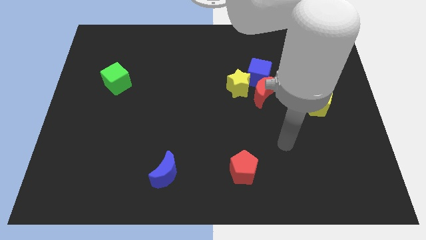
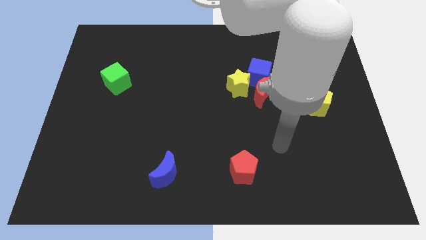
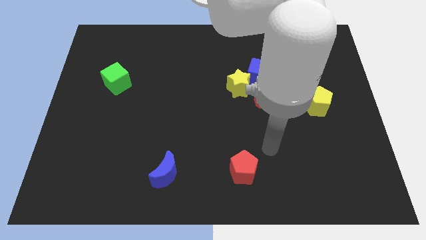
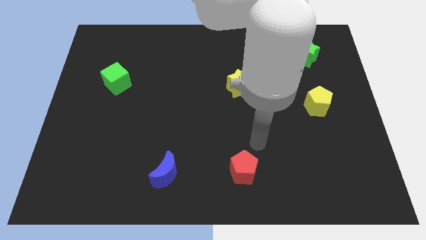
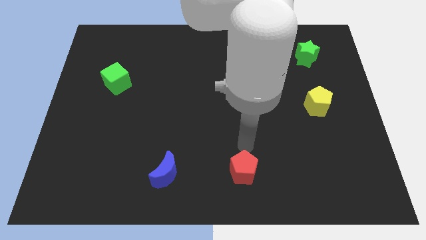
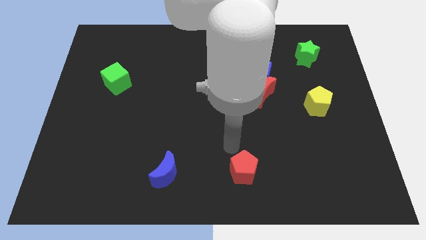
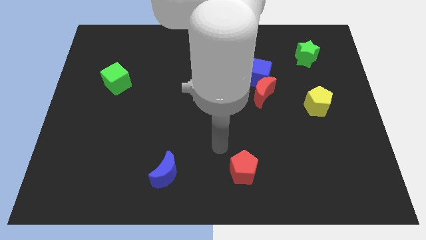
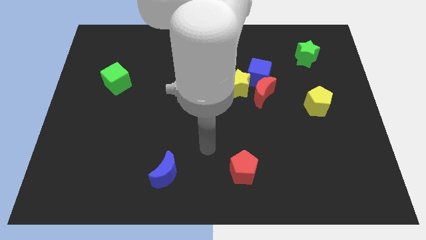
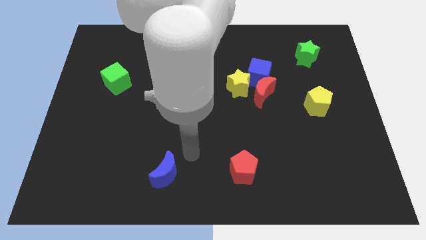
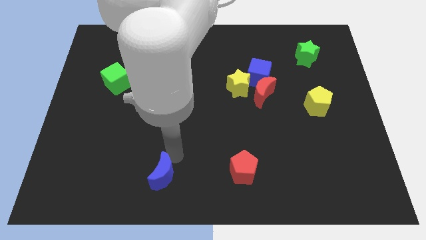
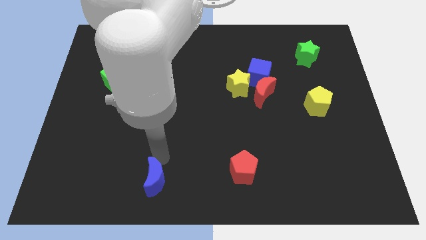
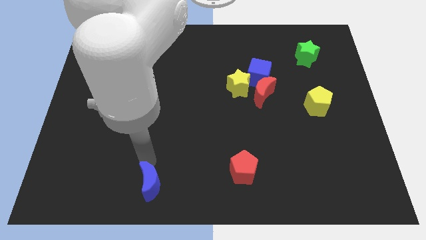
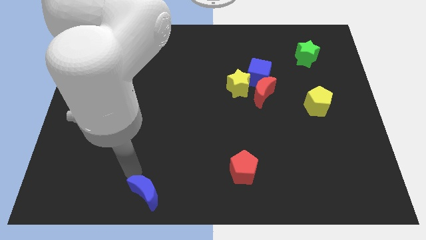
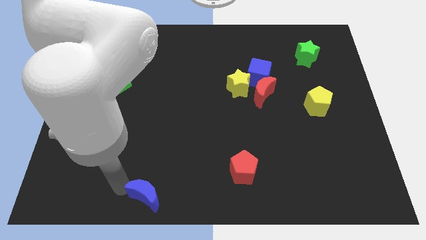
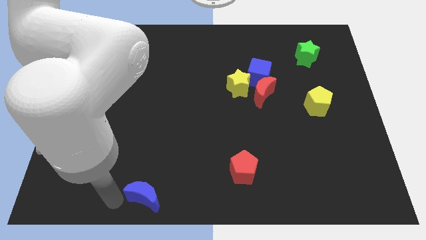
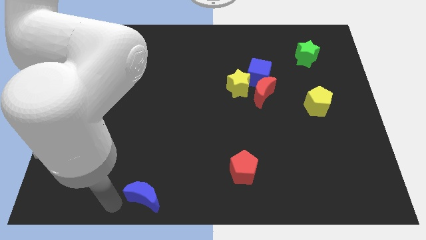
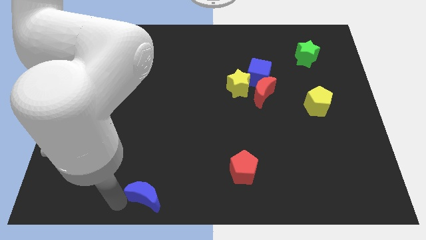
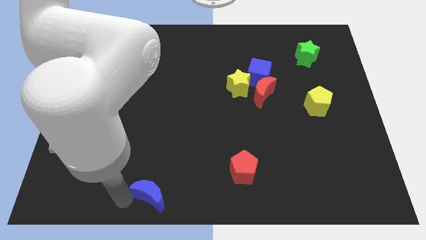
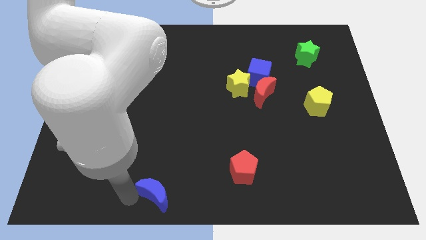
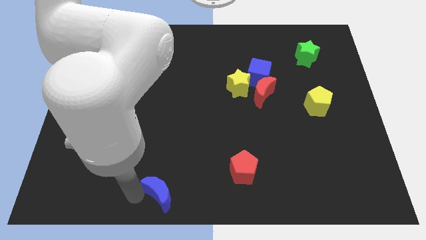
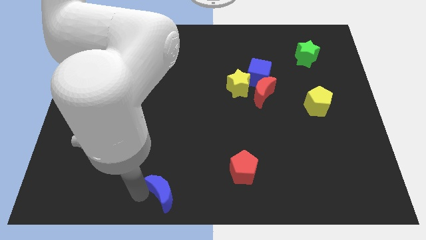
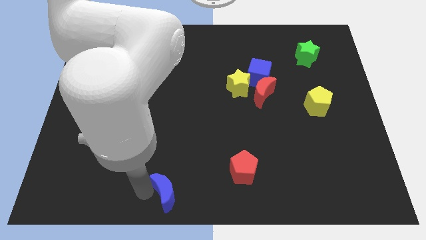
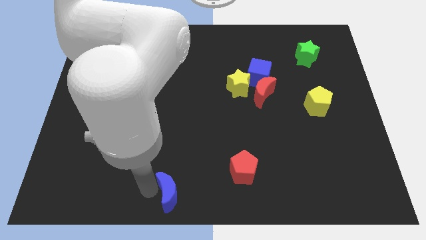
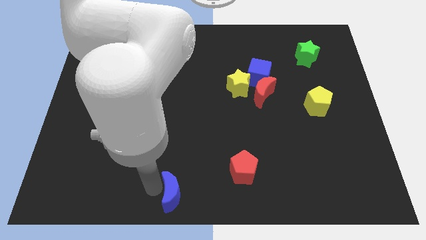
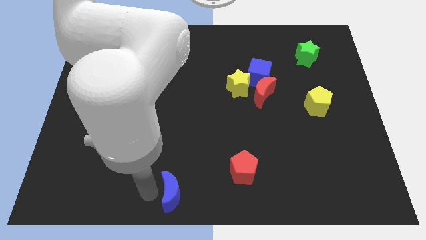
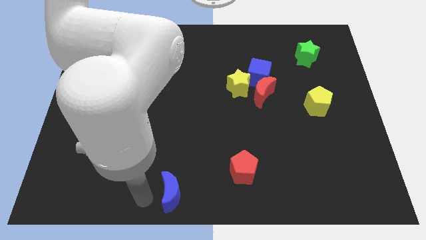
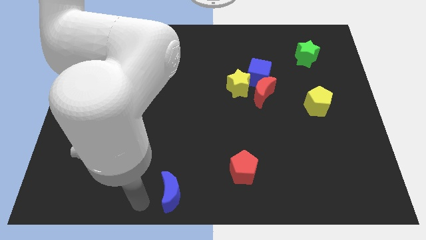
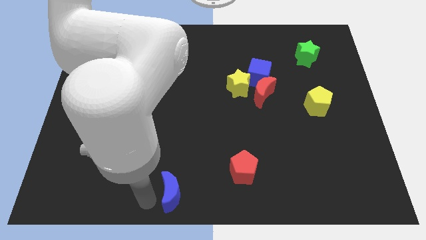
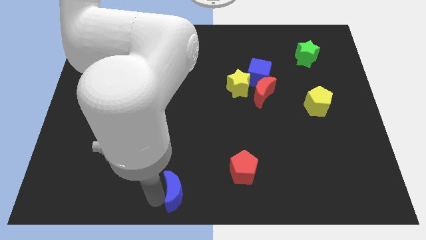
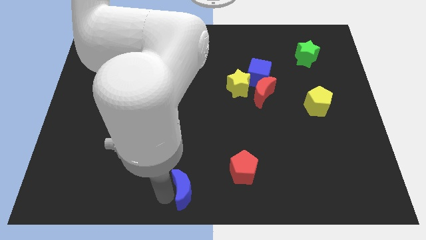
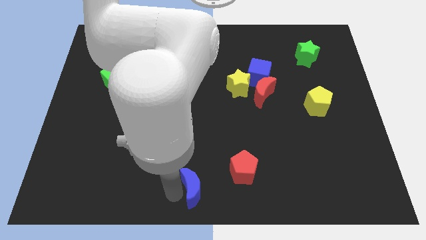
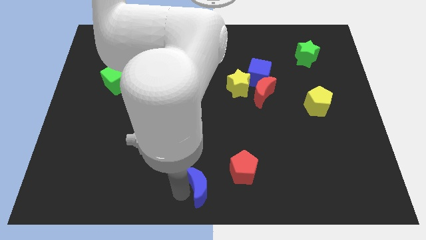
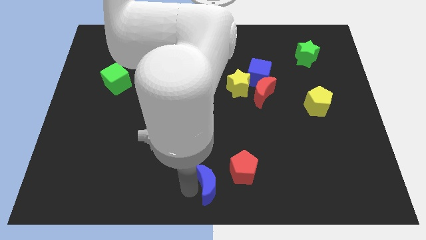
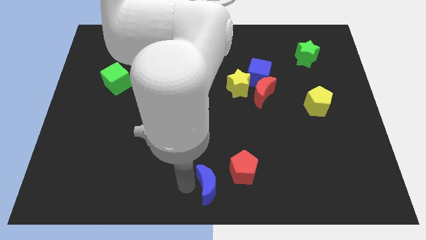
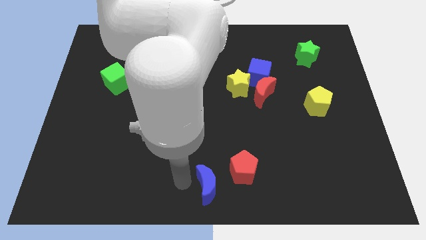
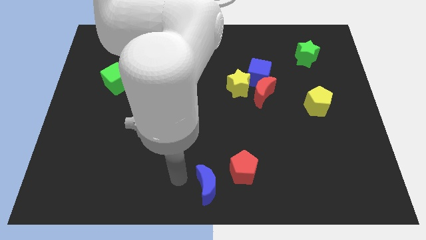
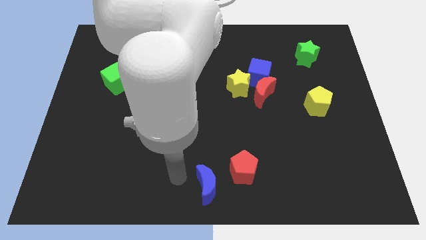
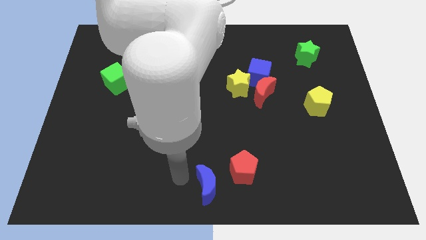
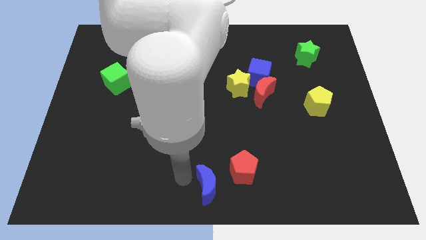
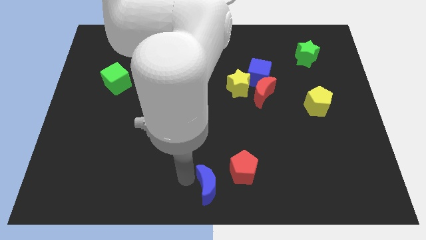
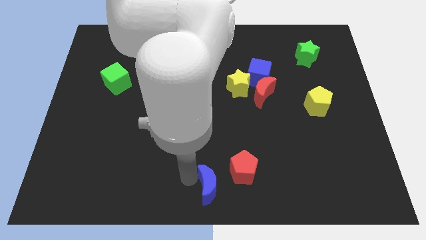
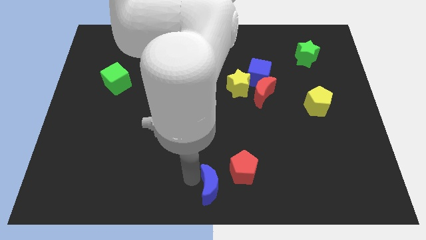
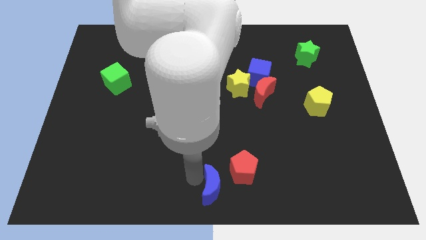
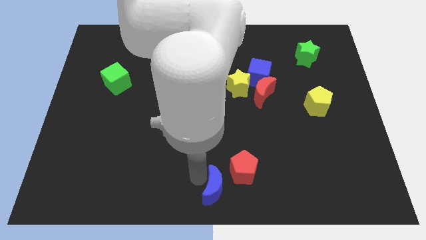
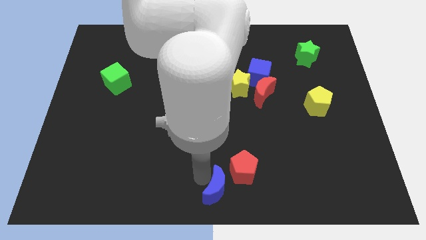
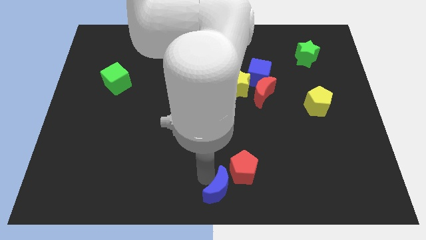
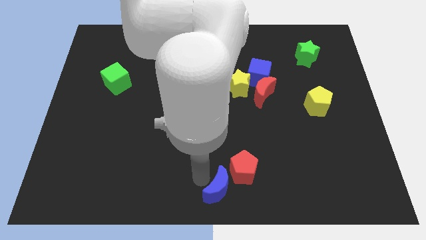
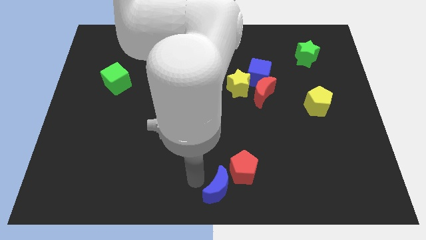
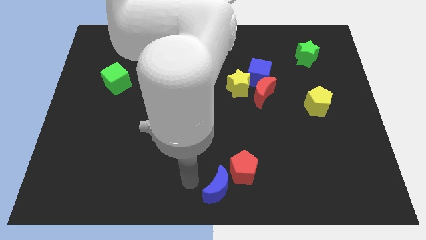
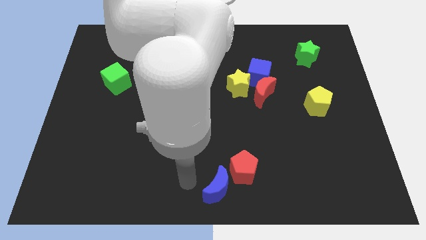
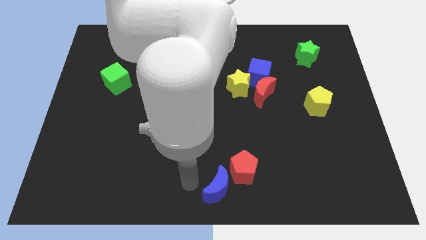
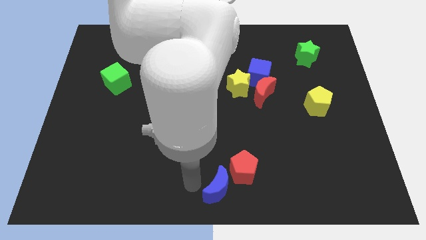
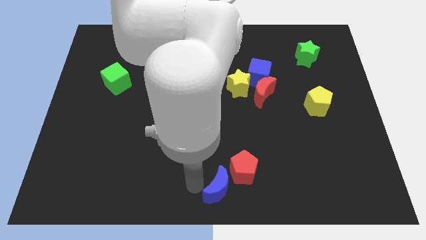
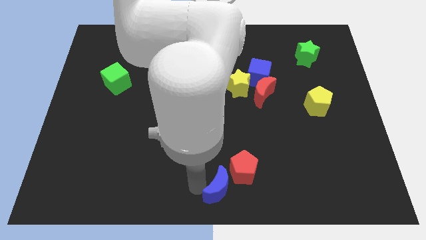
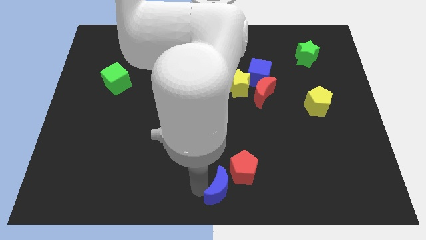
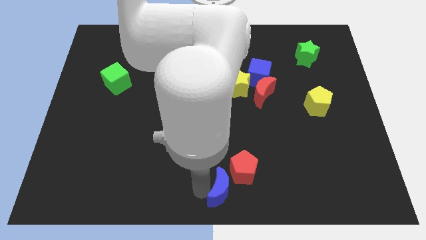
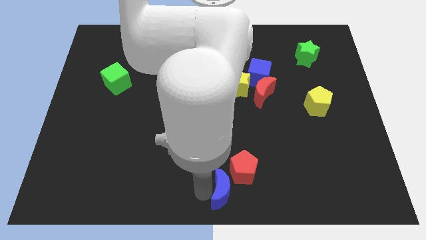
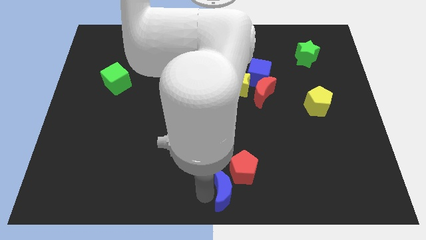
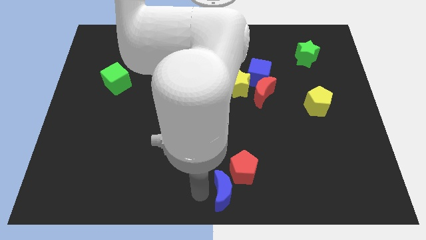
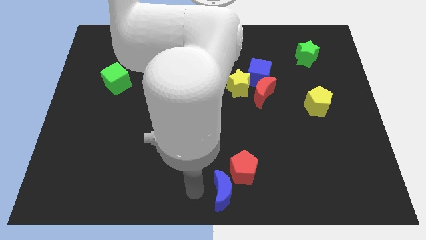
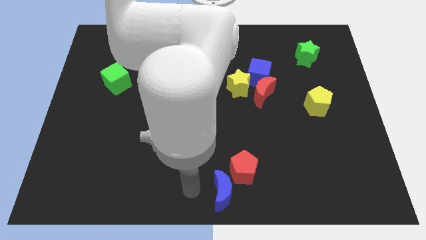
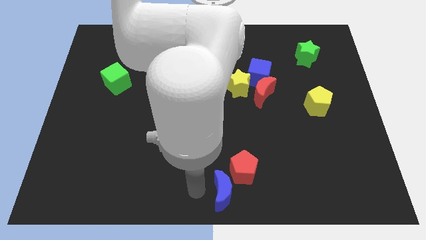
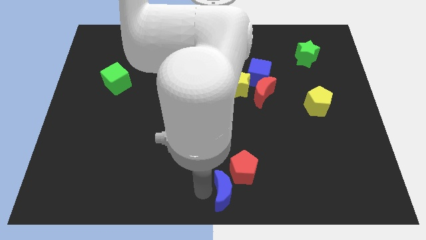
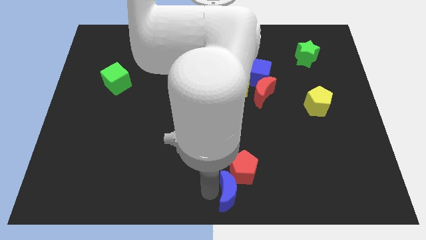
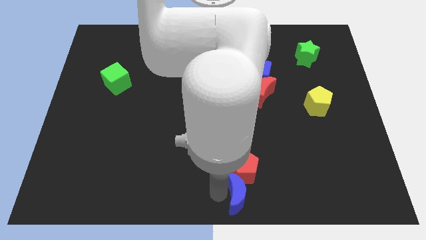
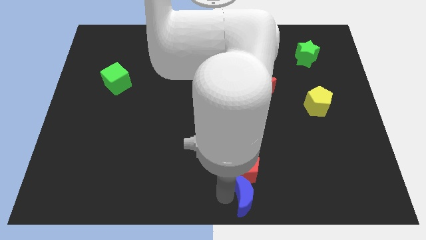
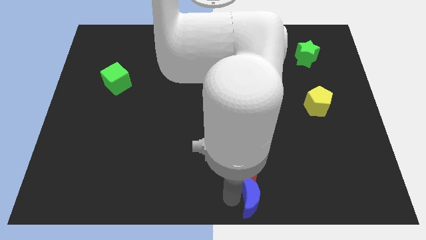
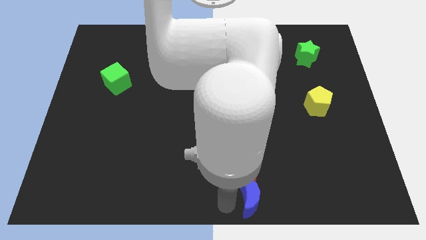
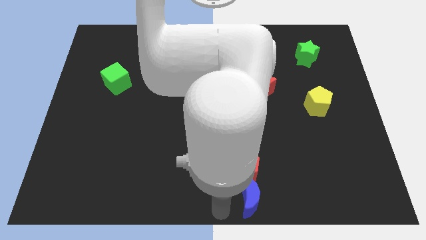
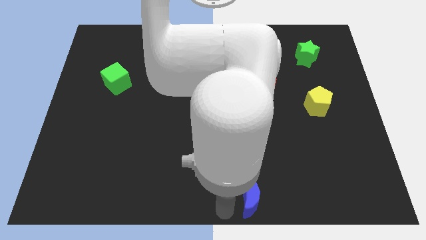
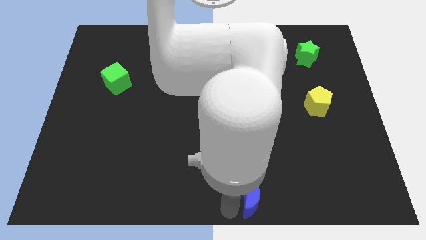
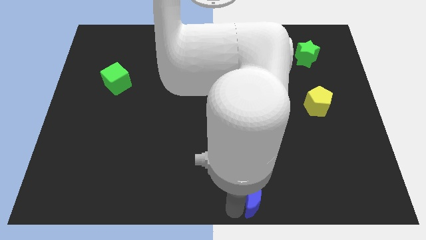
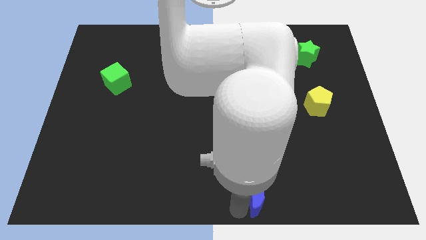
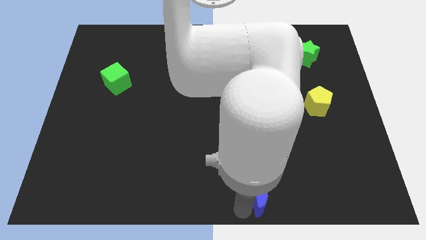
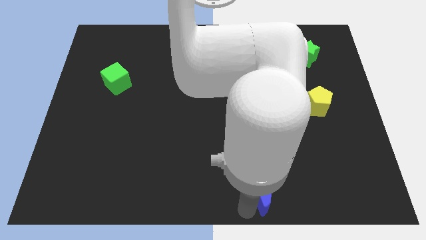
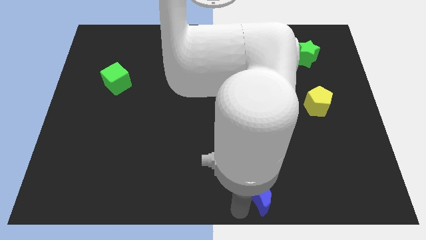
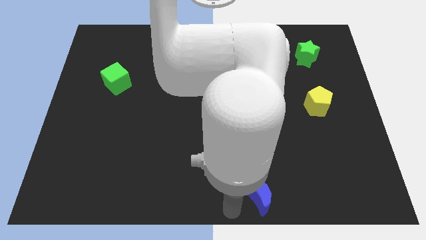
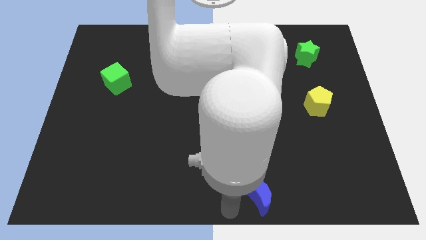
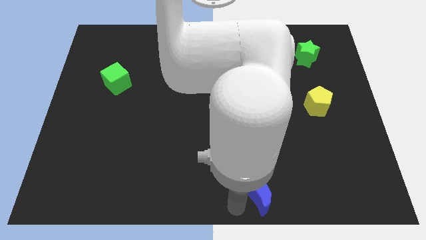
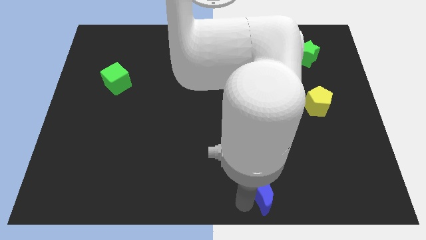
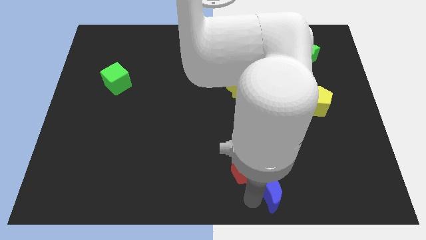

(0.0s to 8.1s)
move the blue moon to the right
